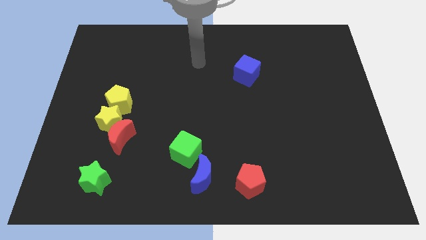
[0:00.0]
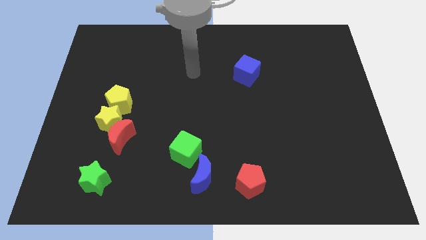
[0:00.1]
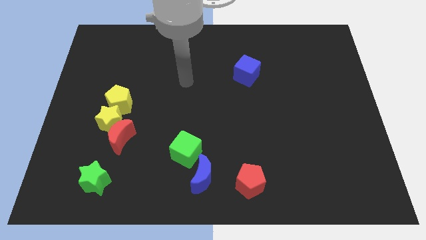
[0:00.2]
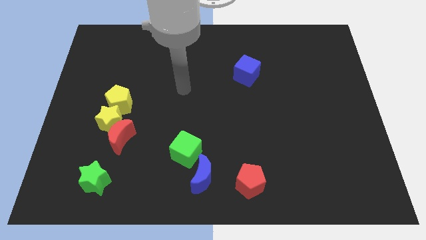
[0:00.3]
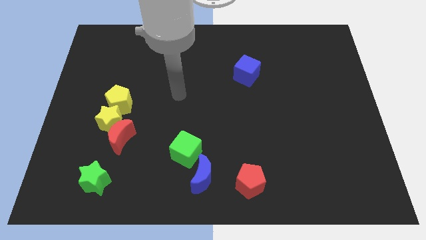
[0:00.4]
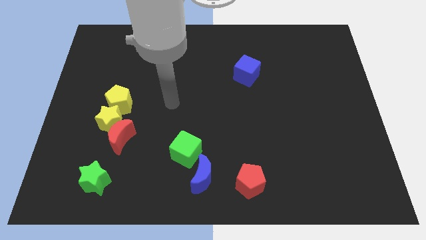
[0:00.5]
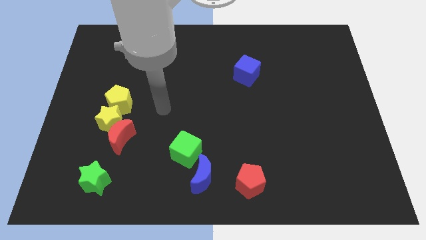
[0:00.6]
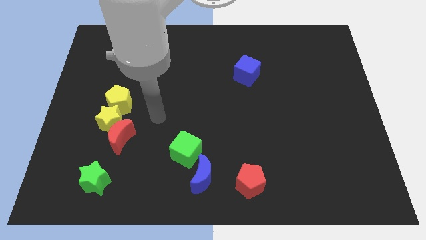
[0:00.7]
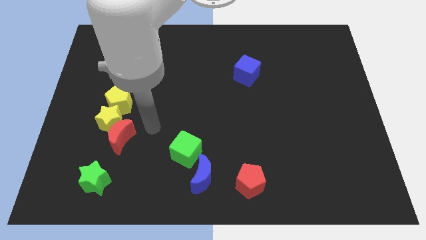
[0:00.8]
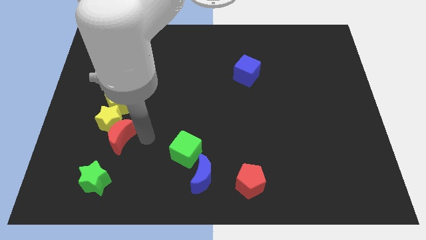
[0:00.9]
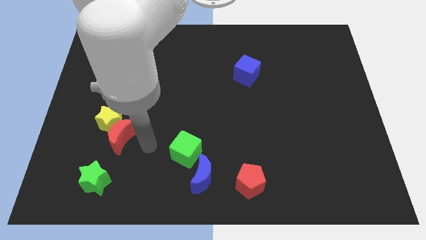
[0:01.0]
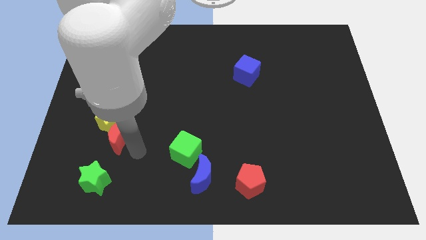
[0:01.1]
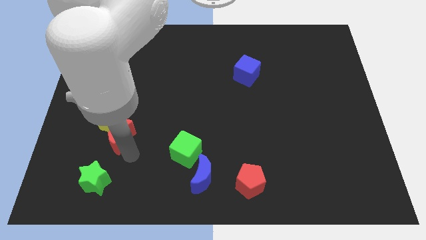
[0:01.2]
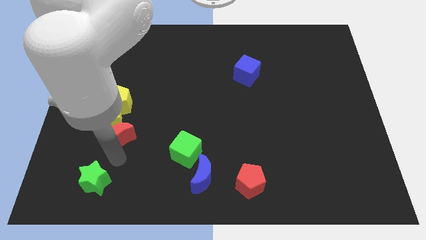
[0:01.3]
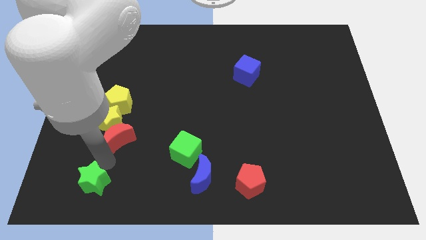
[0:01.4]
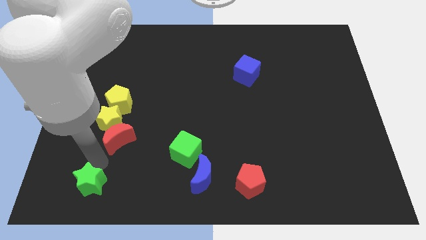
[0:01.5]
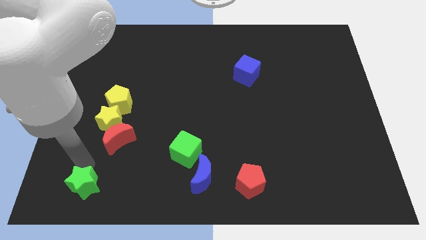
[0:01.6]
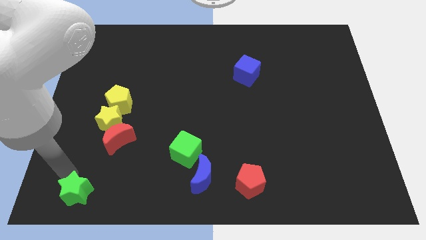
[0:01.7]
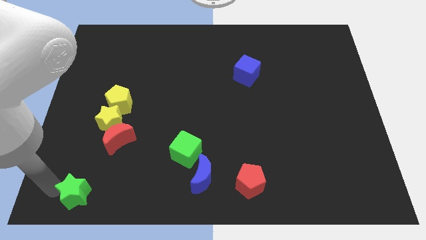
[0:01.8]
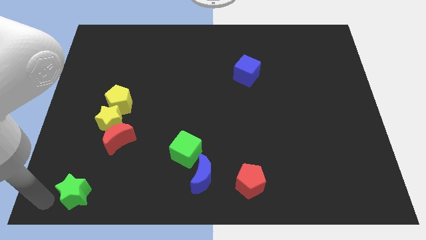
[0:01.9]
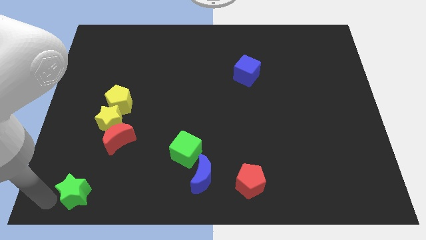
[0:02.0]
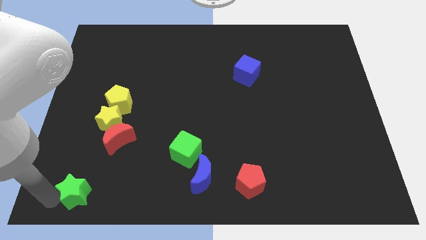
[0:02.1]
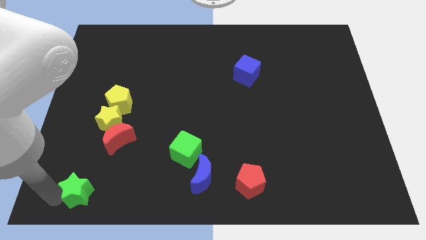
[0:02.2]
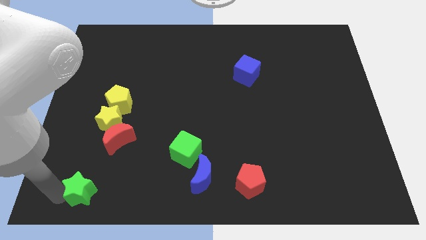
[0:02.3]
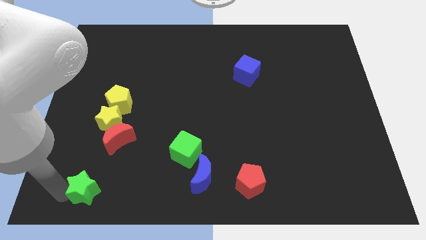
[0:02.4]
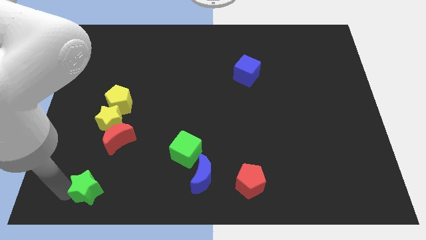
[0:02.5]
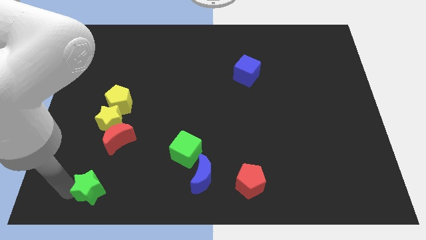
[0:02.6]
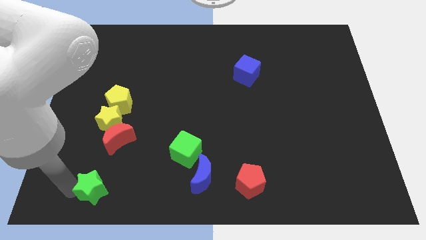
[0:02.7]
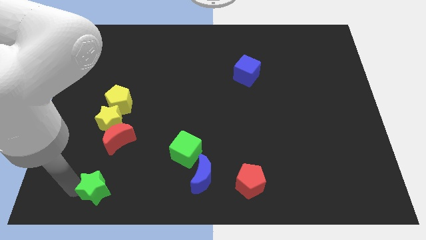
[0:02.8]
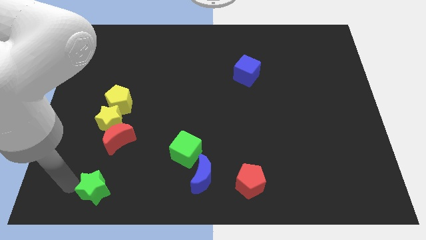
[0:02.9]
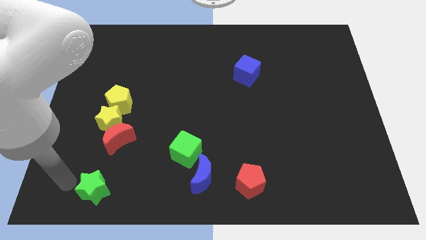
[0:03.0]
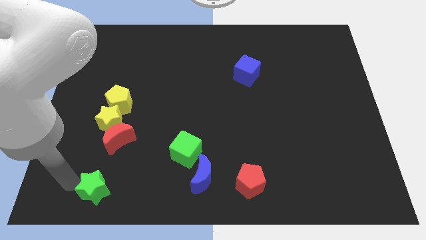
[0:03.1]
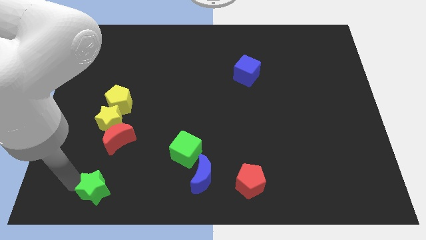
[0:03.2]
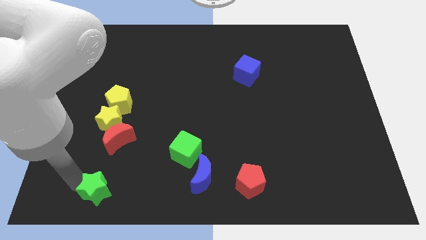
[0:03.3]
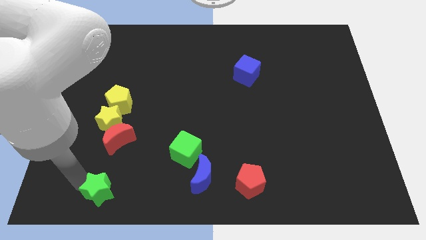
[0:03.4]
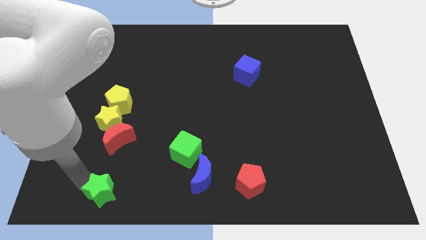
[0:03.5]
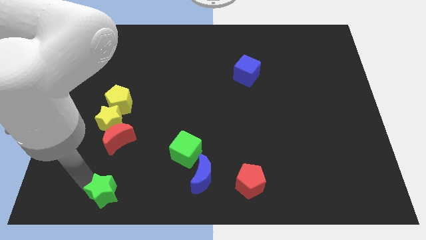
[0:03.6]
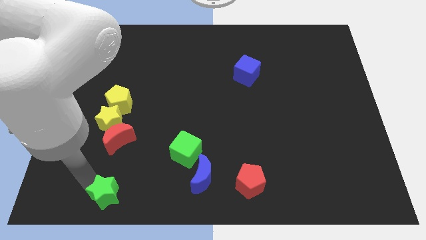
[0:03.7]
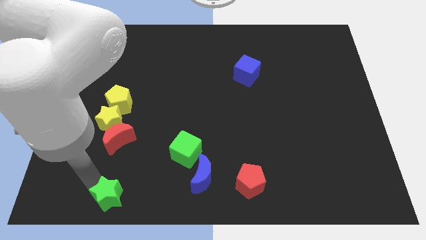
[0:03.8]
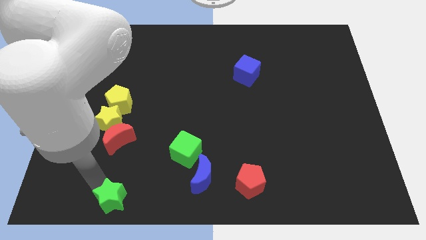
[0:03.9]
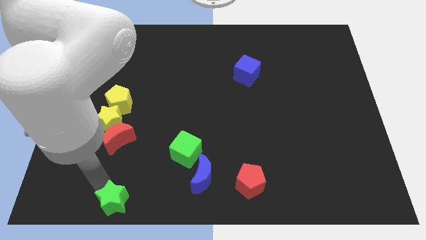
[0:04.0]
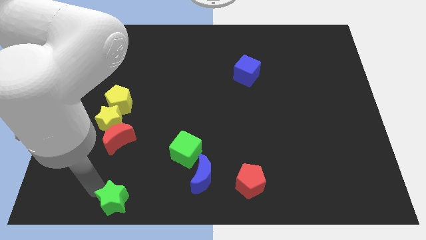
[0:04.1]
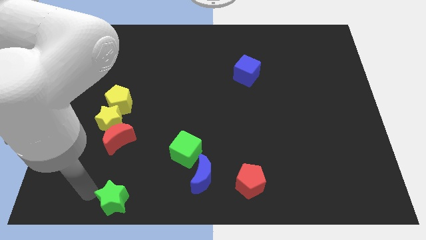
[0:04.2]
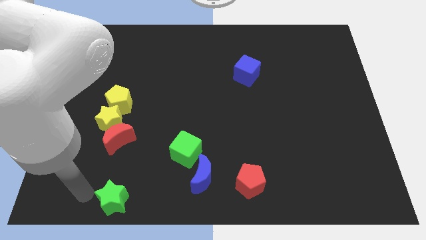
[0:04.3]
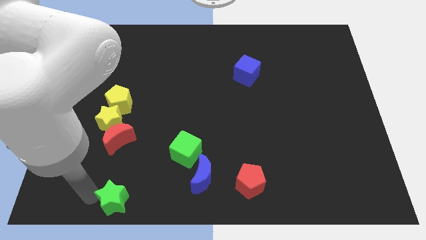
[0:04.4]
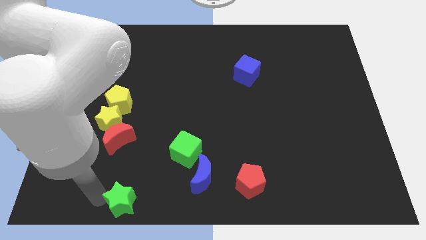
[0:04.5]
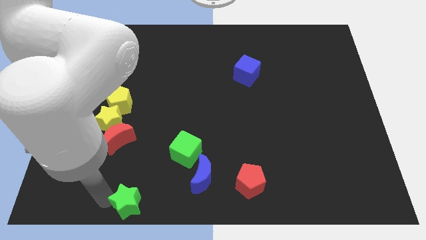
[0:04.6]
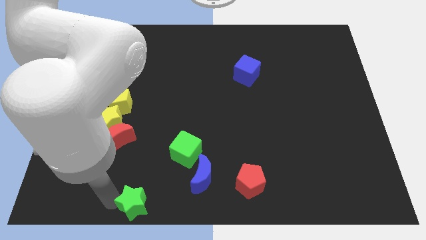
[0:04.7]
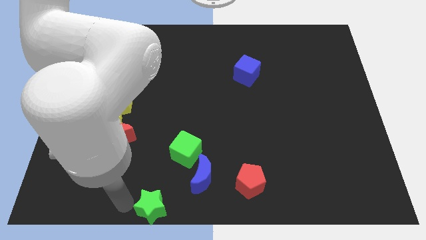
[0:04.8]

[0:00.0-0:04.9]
push the green star to the bottom

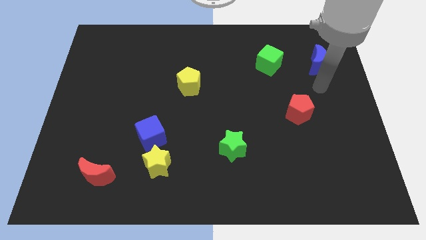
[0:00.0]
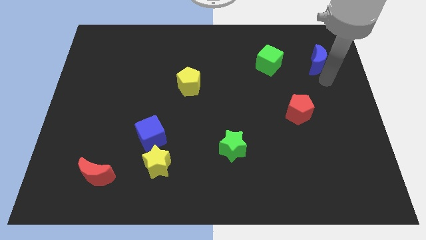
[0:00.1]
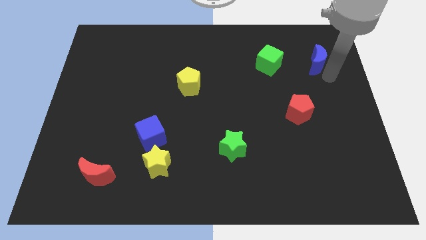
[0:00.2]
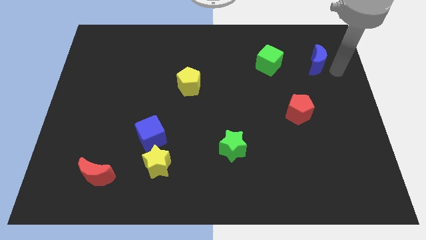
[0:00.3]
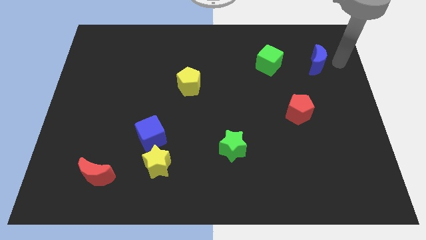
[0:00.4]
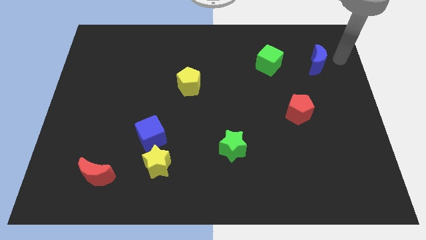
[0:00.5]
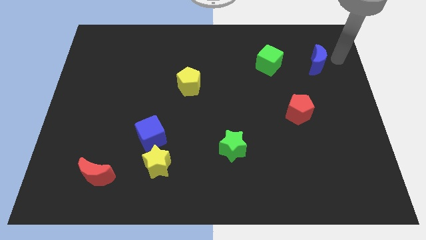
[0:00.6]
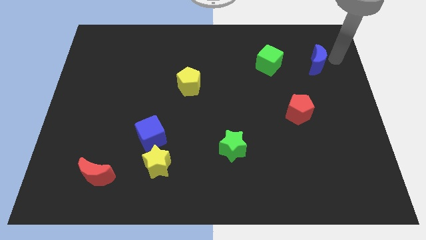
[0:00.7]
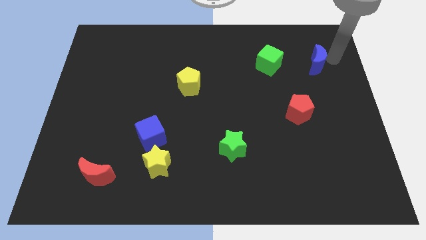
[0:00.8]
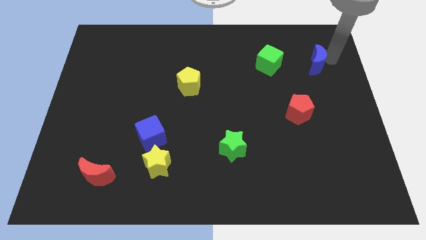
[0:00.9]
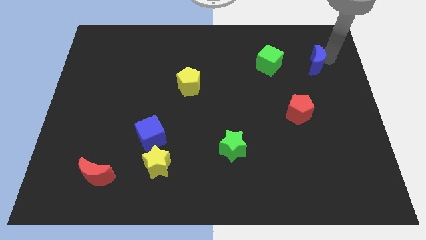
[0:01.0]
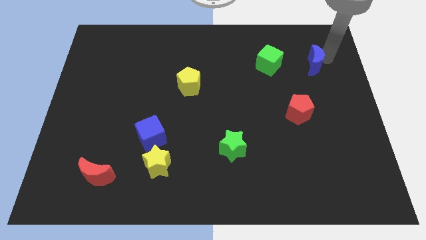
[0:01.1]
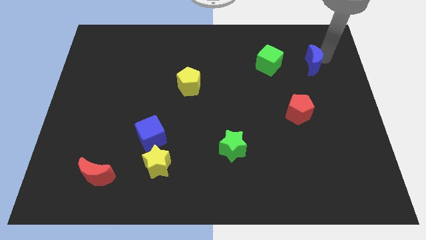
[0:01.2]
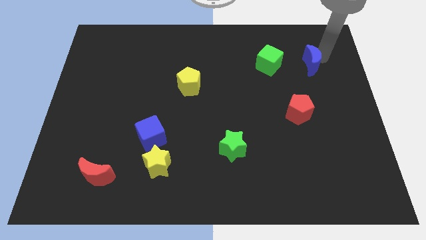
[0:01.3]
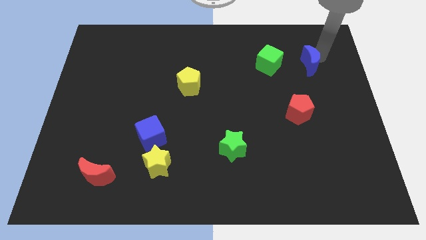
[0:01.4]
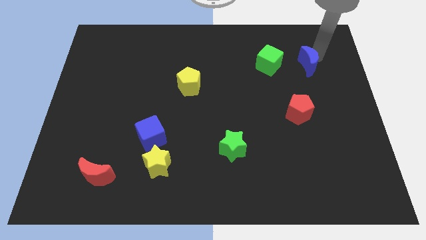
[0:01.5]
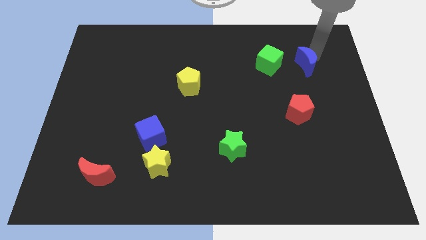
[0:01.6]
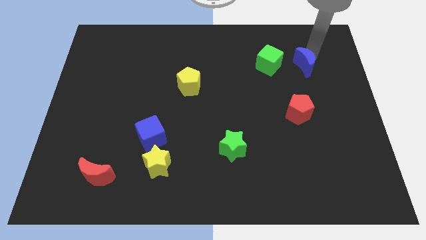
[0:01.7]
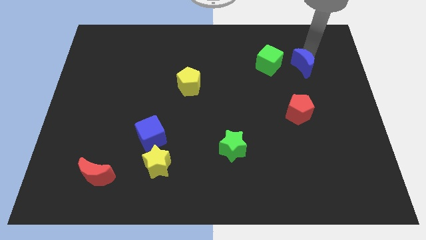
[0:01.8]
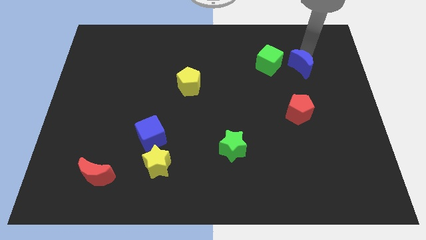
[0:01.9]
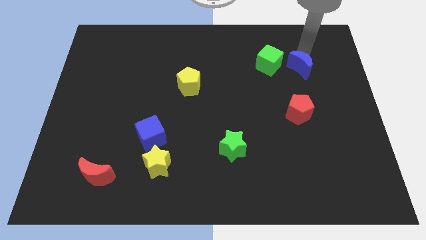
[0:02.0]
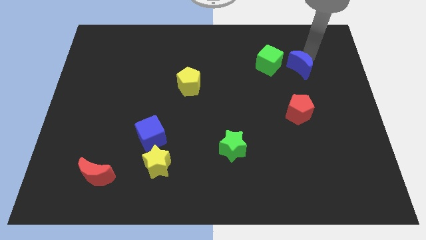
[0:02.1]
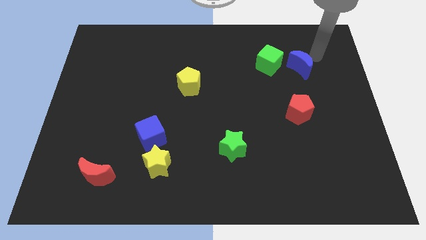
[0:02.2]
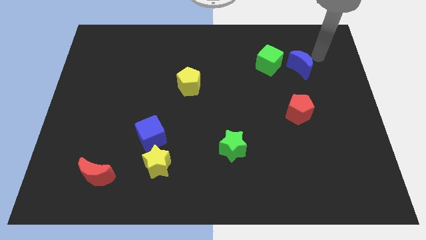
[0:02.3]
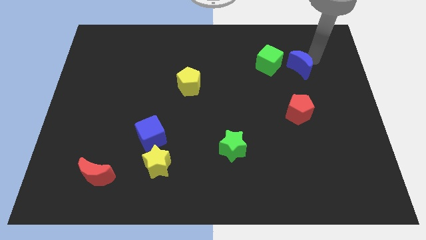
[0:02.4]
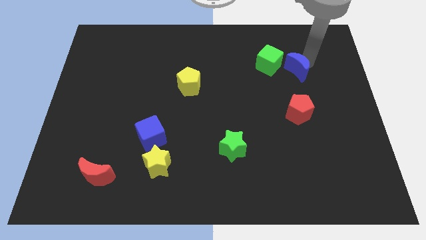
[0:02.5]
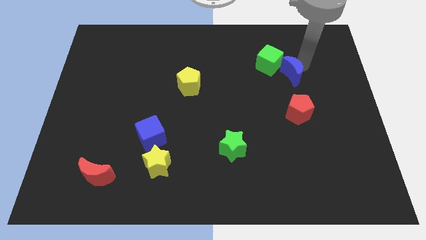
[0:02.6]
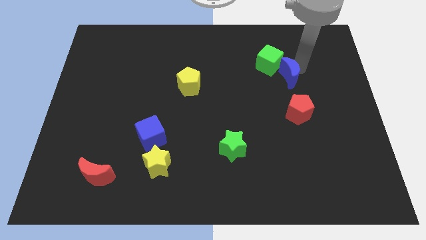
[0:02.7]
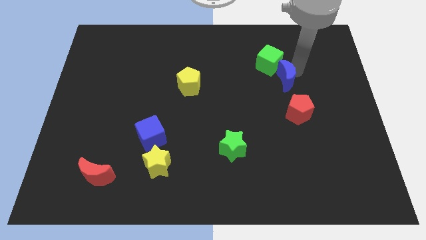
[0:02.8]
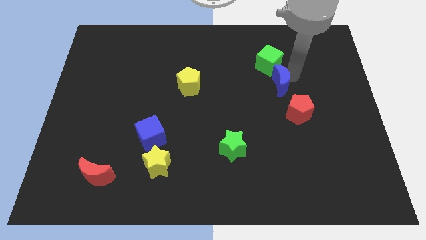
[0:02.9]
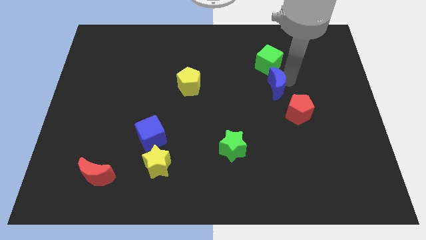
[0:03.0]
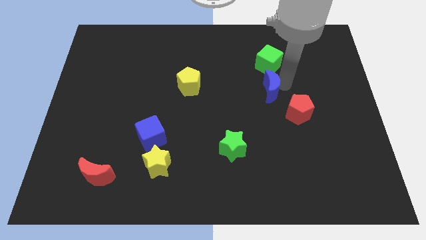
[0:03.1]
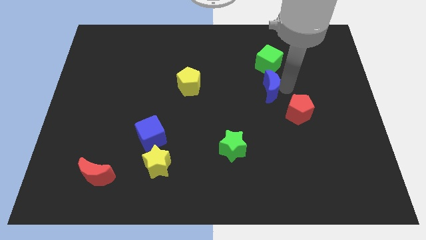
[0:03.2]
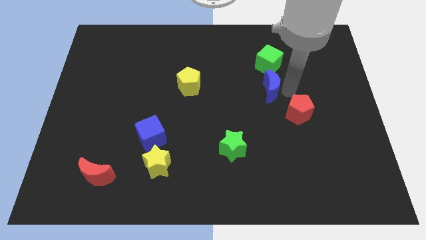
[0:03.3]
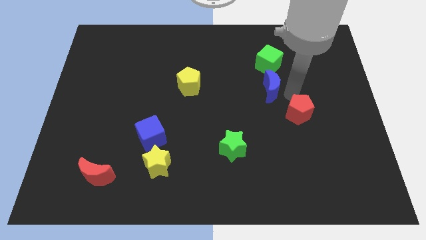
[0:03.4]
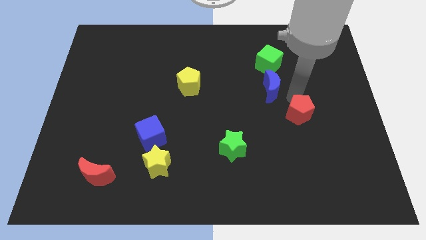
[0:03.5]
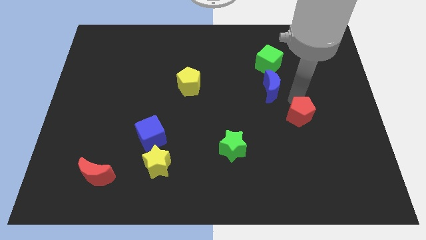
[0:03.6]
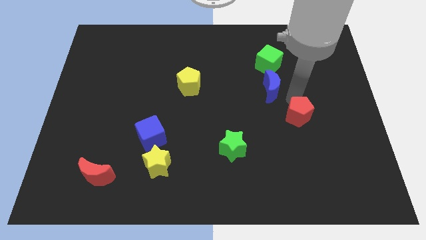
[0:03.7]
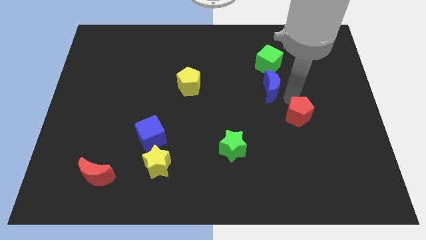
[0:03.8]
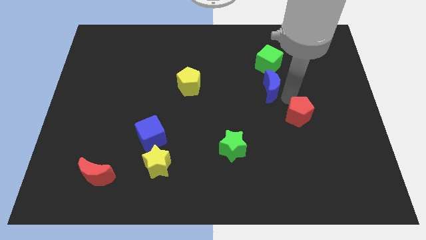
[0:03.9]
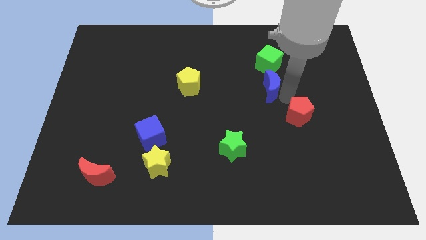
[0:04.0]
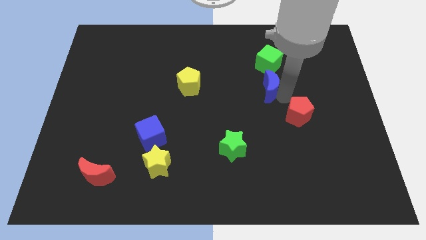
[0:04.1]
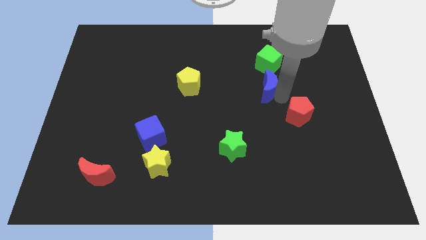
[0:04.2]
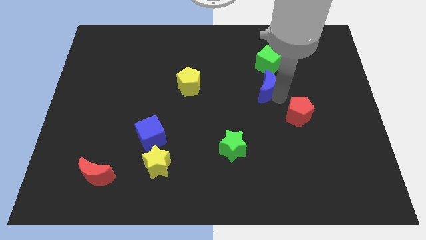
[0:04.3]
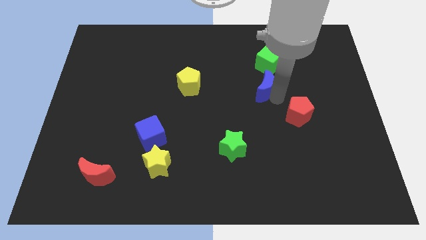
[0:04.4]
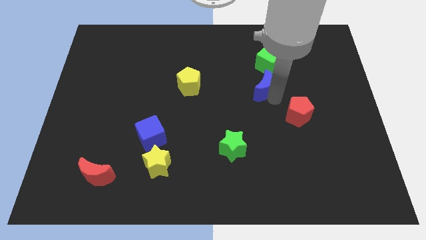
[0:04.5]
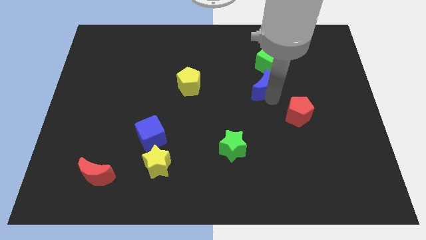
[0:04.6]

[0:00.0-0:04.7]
push the blue moon to the center of the board
